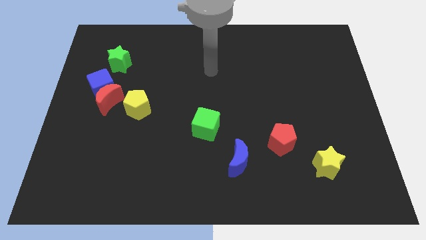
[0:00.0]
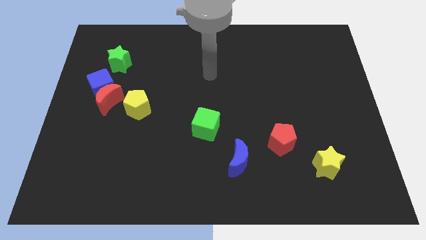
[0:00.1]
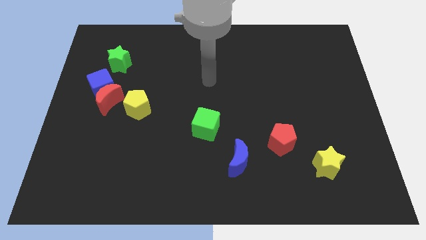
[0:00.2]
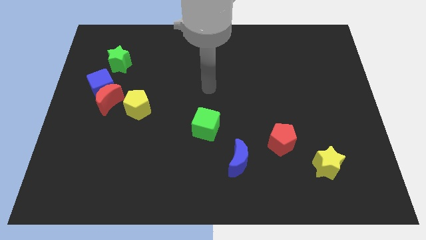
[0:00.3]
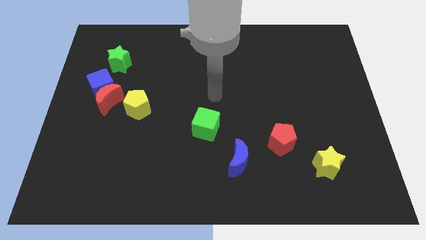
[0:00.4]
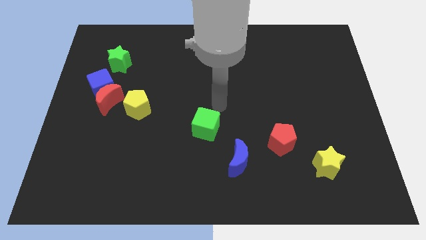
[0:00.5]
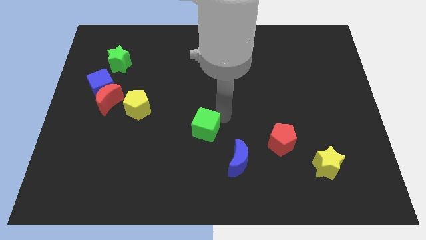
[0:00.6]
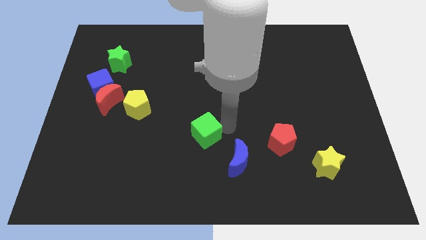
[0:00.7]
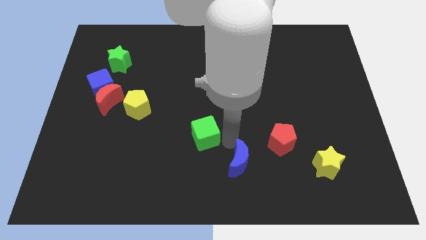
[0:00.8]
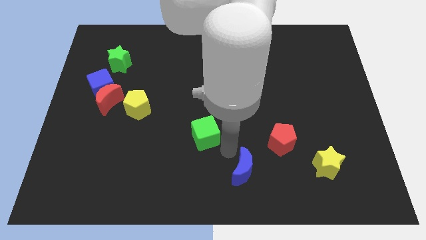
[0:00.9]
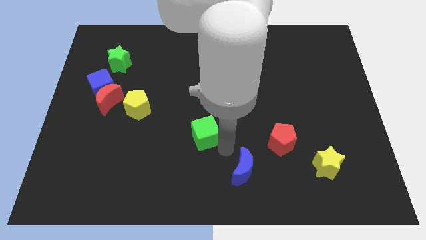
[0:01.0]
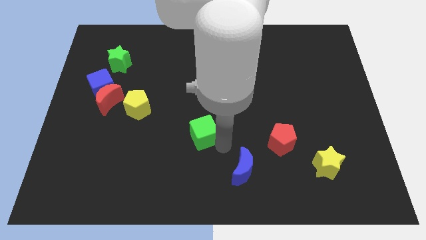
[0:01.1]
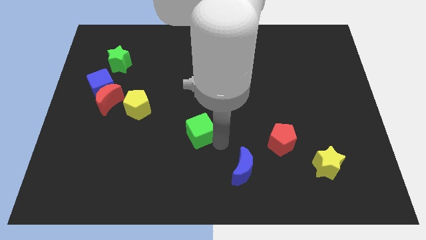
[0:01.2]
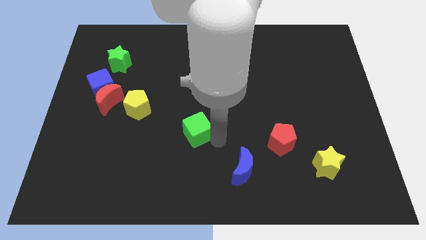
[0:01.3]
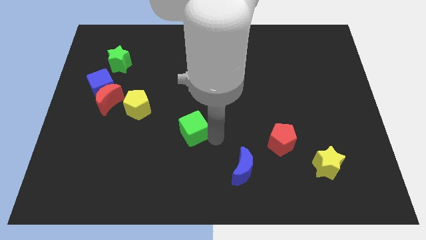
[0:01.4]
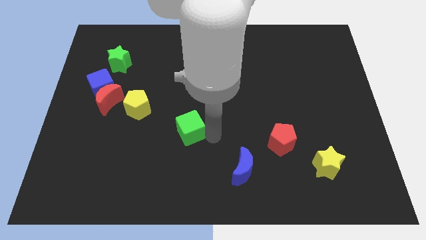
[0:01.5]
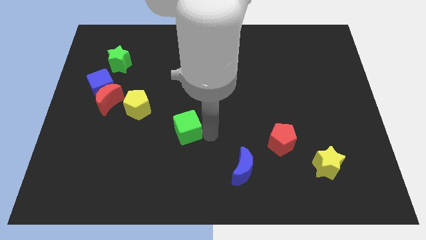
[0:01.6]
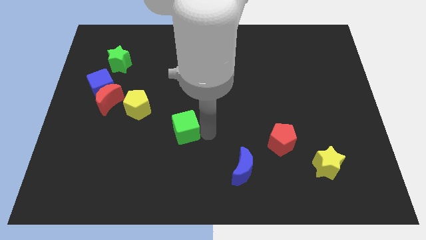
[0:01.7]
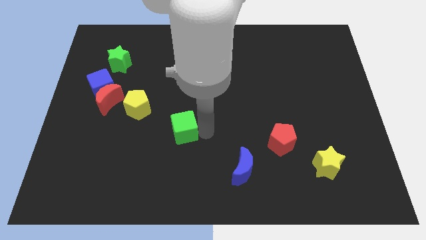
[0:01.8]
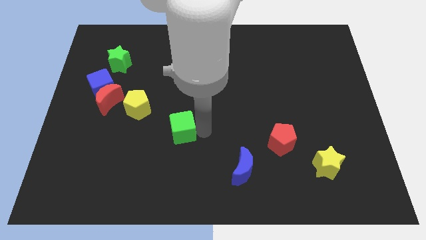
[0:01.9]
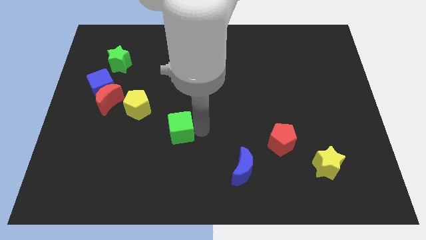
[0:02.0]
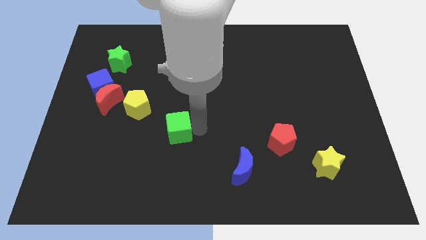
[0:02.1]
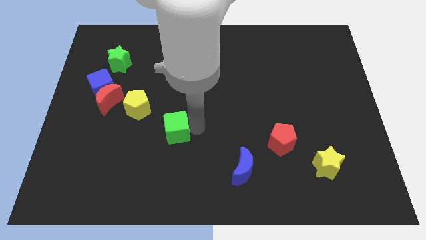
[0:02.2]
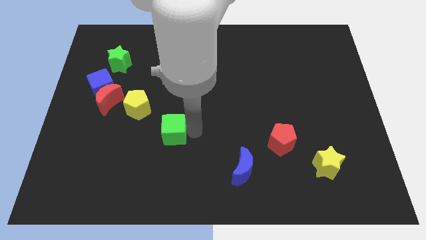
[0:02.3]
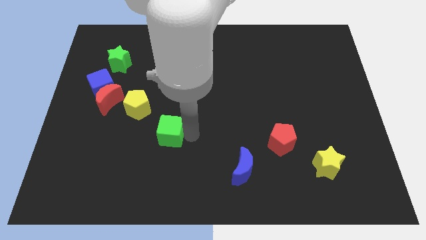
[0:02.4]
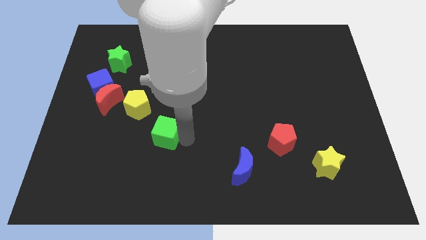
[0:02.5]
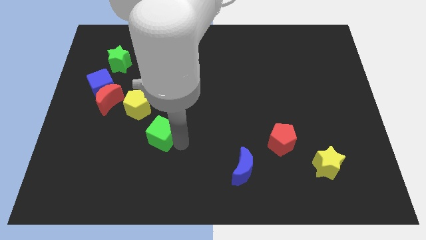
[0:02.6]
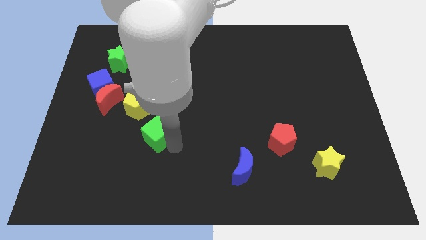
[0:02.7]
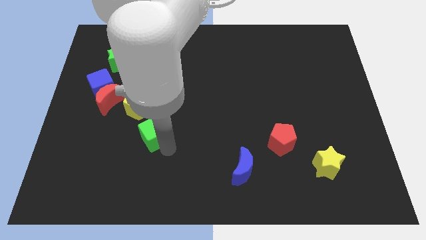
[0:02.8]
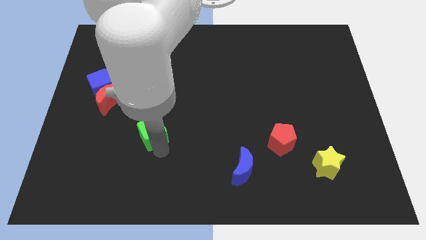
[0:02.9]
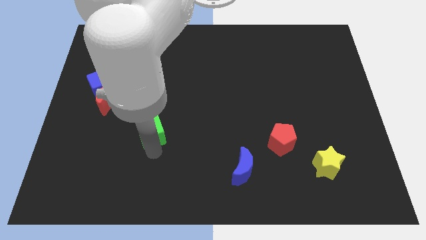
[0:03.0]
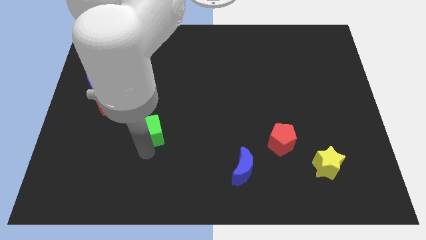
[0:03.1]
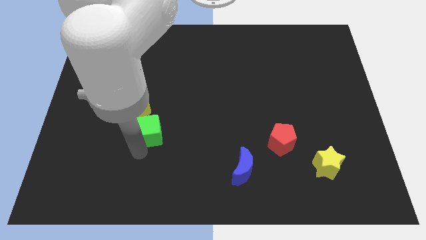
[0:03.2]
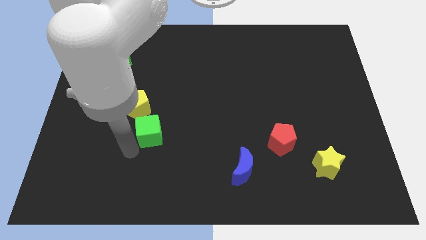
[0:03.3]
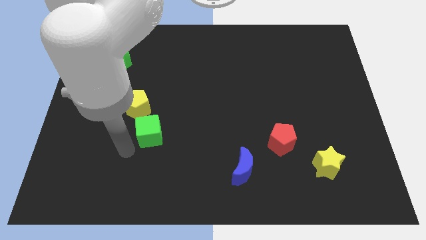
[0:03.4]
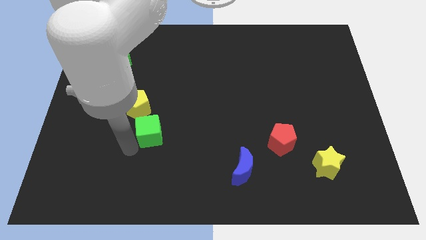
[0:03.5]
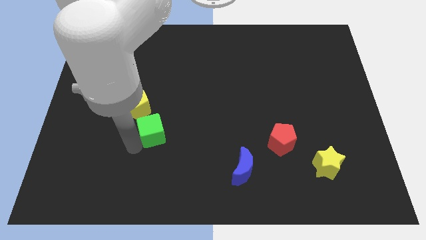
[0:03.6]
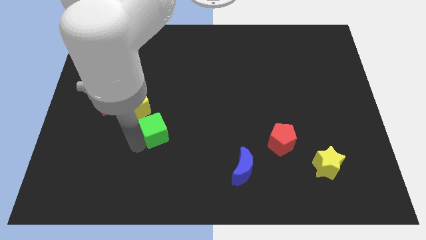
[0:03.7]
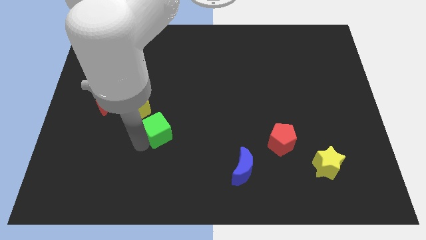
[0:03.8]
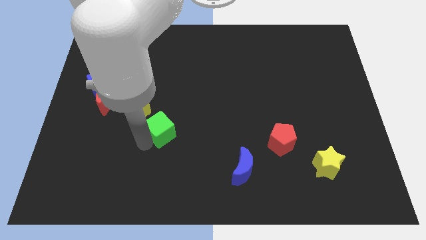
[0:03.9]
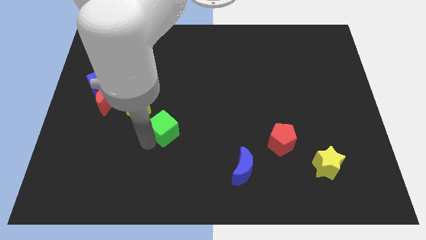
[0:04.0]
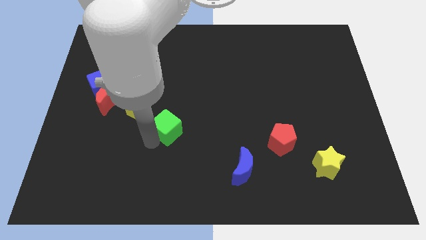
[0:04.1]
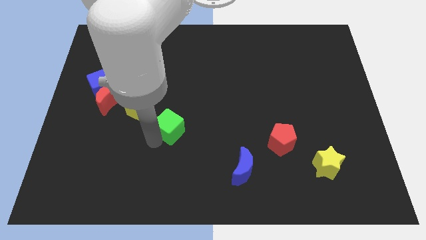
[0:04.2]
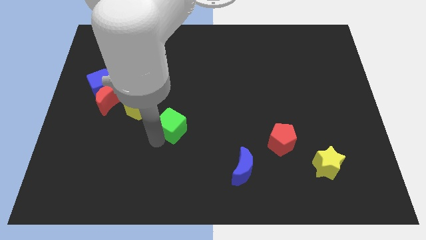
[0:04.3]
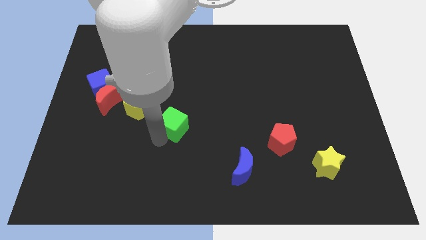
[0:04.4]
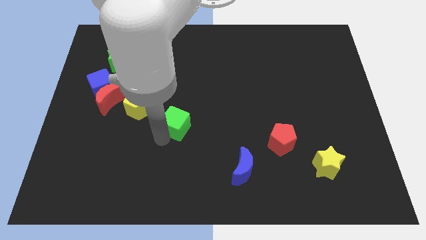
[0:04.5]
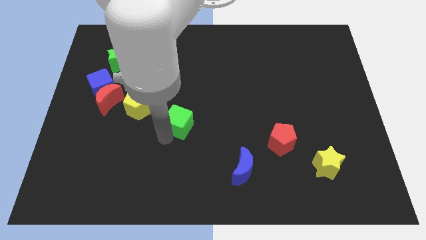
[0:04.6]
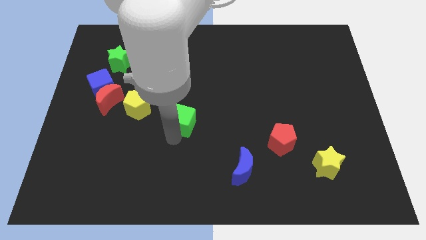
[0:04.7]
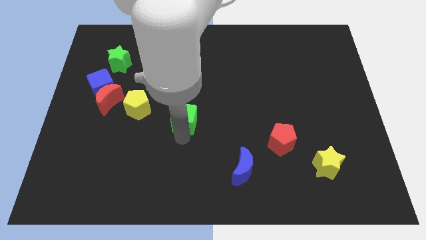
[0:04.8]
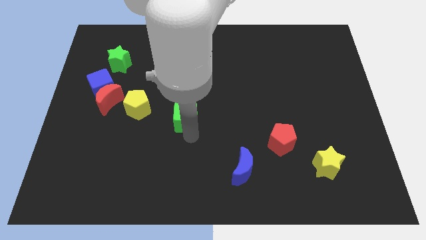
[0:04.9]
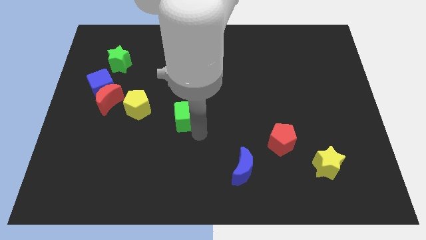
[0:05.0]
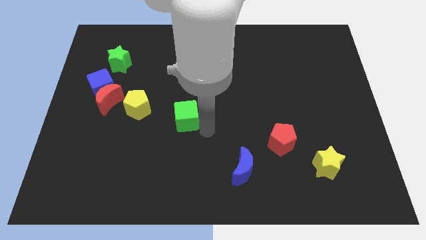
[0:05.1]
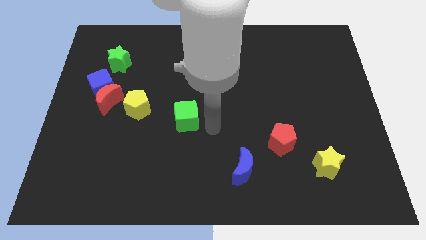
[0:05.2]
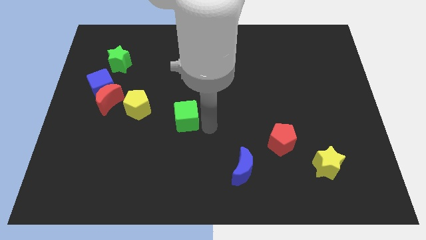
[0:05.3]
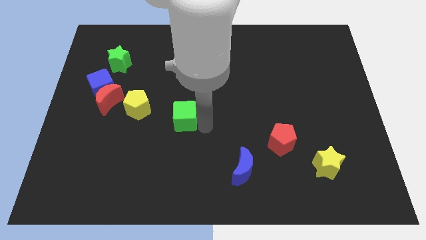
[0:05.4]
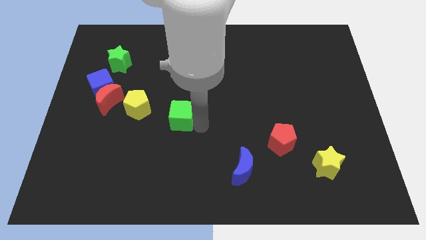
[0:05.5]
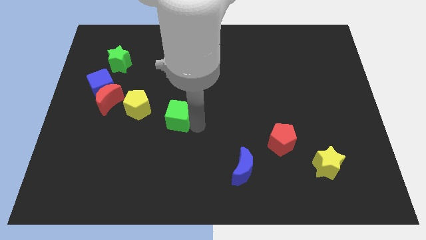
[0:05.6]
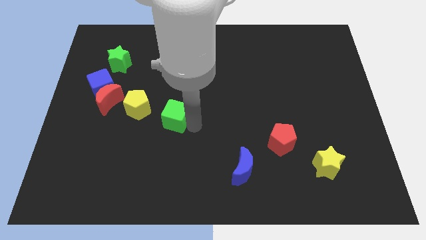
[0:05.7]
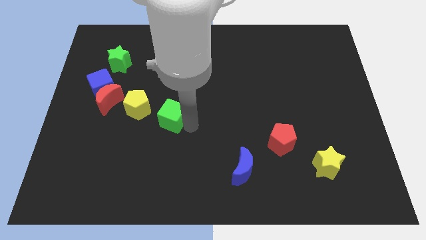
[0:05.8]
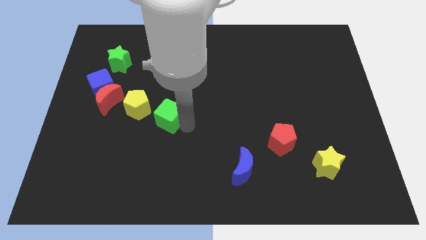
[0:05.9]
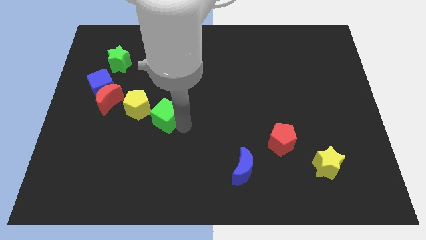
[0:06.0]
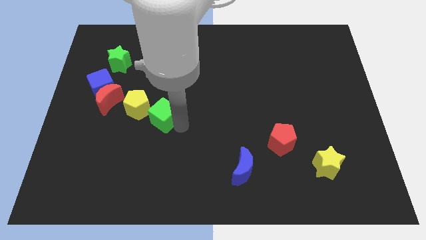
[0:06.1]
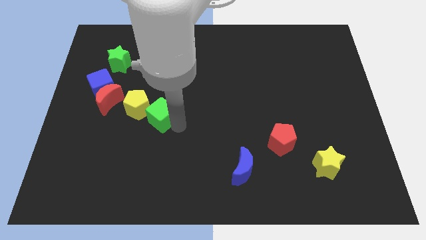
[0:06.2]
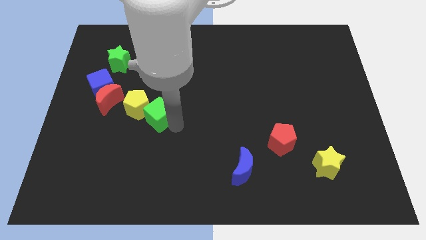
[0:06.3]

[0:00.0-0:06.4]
slide the green cube towards the yellow pentagon

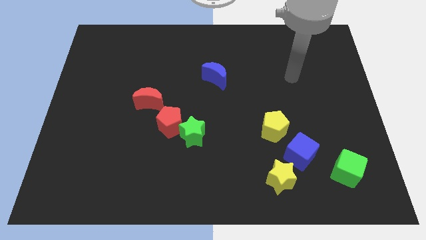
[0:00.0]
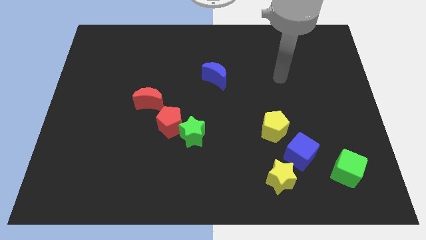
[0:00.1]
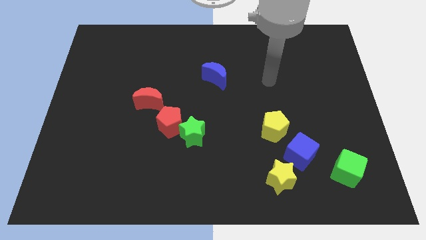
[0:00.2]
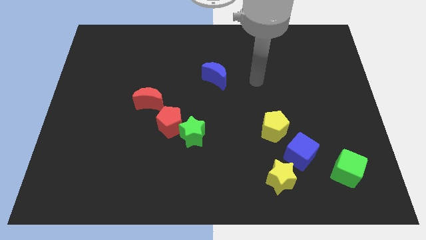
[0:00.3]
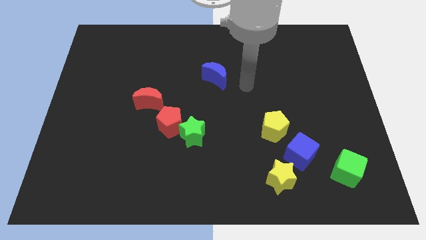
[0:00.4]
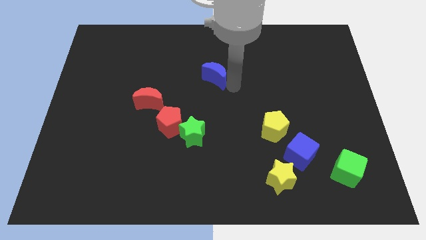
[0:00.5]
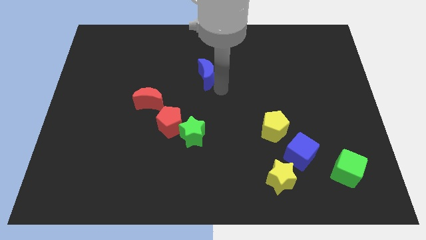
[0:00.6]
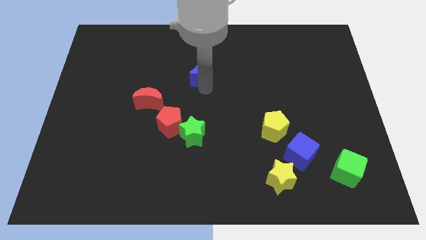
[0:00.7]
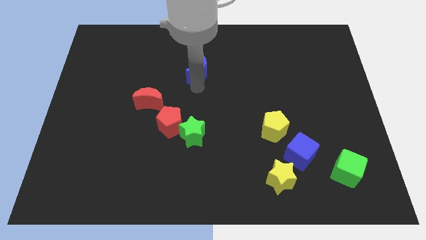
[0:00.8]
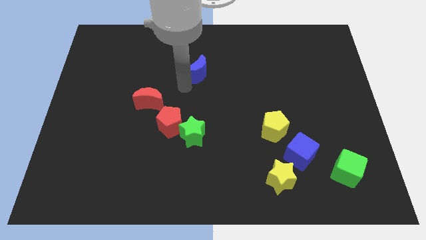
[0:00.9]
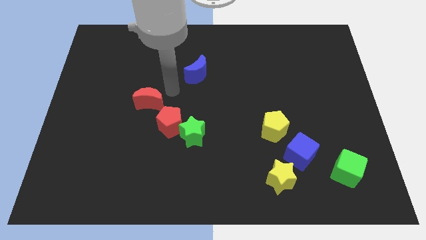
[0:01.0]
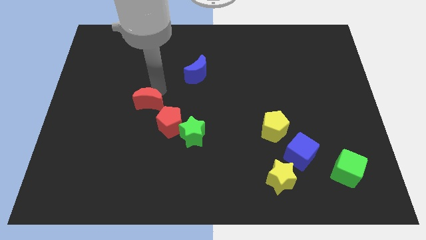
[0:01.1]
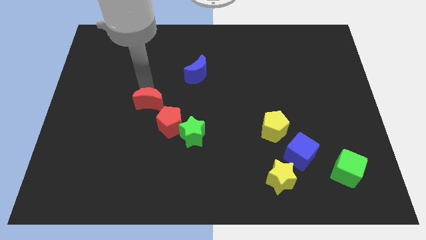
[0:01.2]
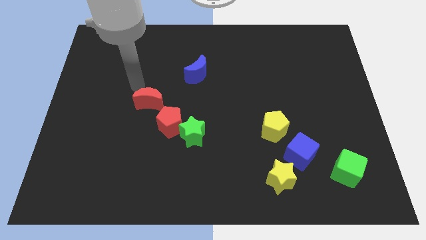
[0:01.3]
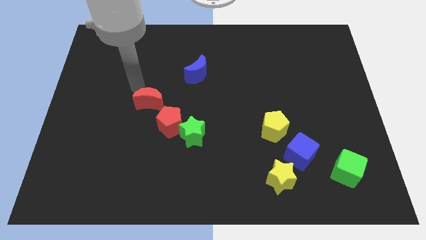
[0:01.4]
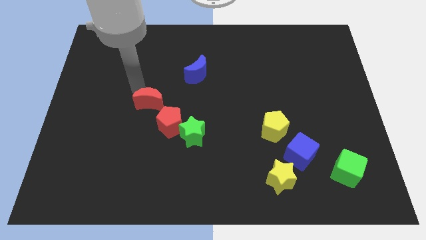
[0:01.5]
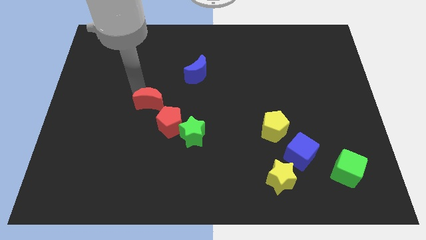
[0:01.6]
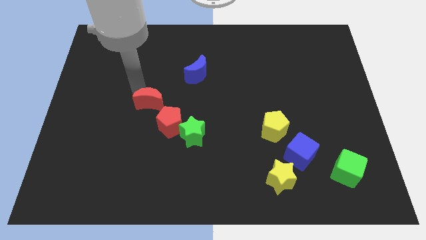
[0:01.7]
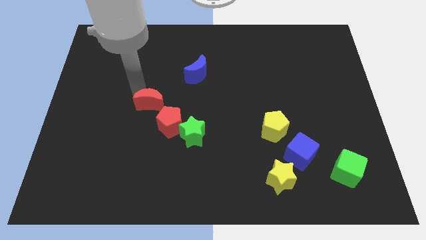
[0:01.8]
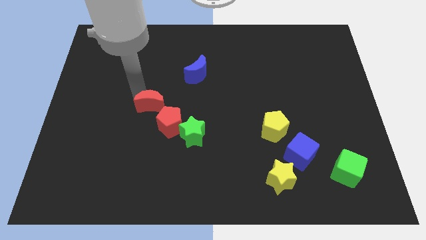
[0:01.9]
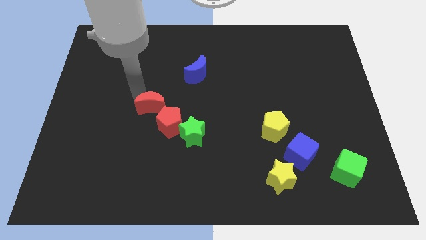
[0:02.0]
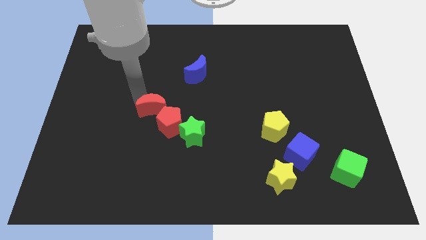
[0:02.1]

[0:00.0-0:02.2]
move the red moon close to the red pentagon
